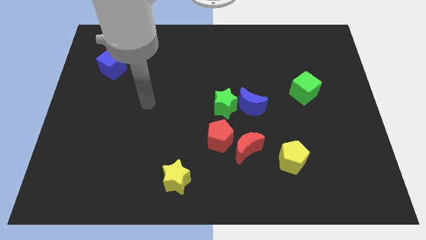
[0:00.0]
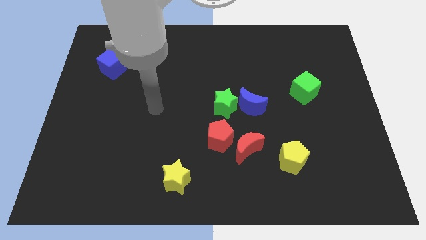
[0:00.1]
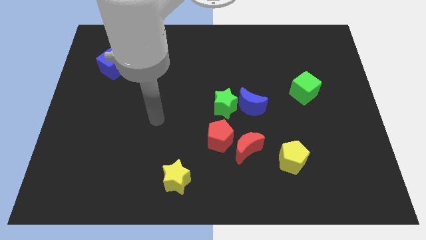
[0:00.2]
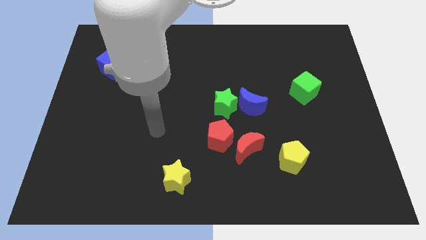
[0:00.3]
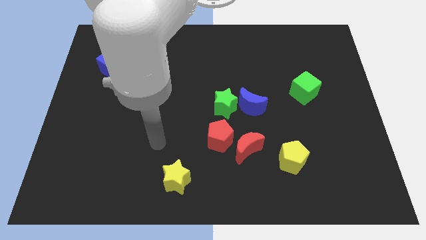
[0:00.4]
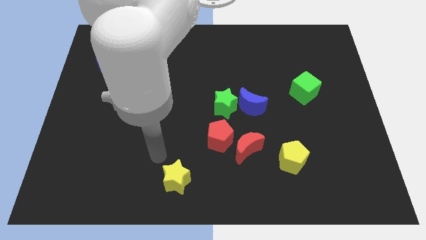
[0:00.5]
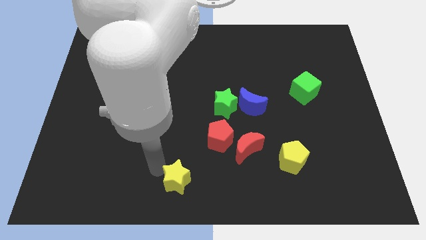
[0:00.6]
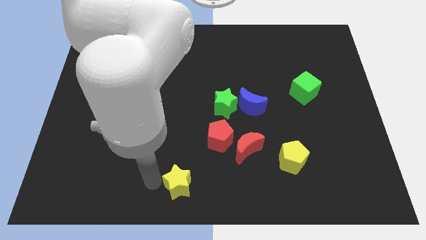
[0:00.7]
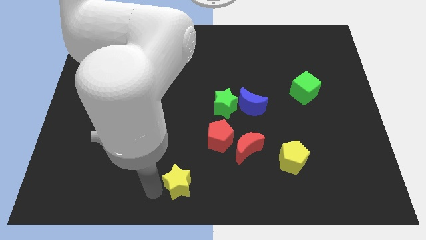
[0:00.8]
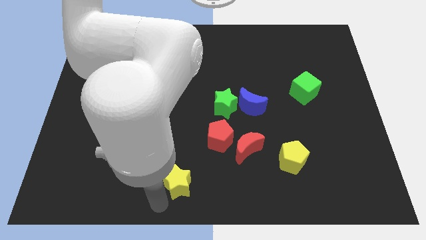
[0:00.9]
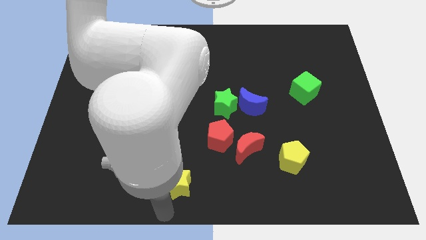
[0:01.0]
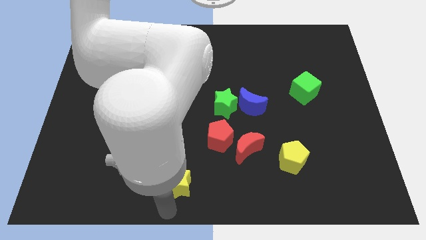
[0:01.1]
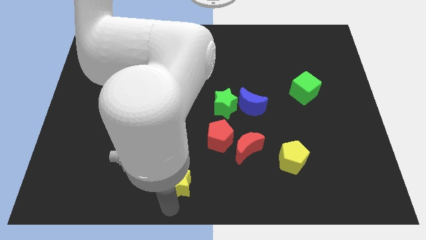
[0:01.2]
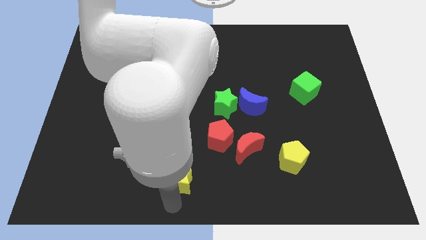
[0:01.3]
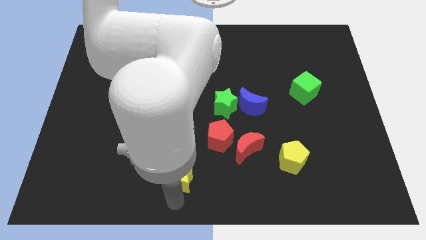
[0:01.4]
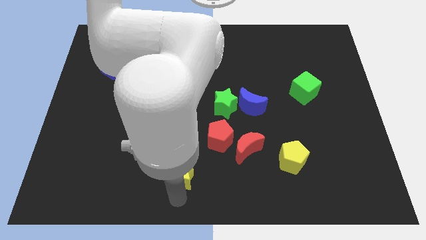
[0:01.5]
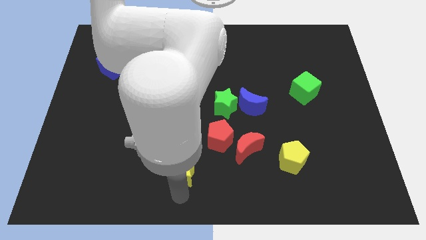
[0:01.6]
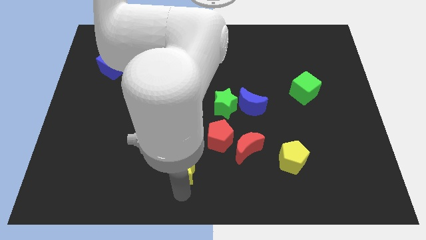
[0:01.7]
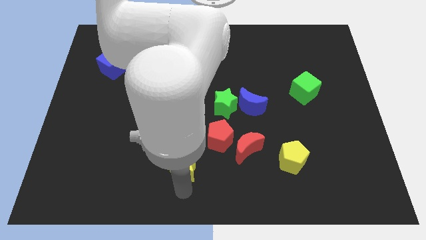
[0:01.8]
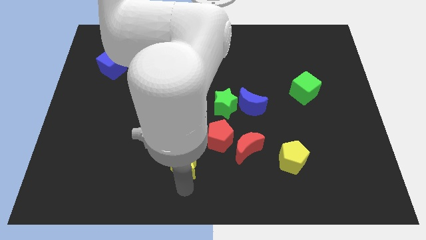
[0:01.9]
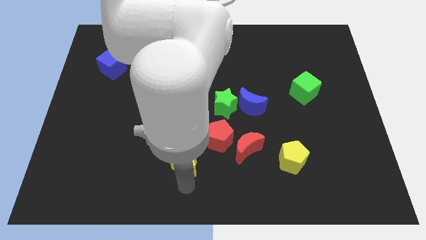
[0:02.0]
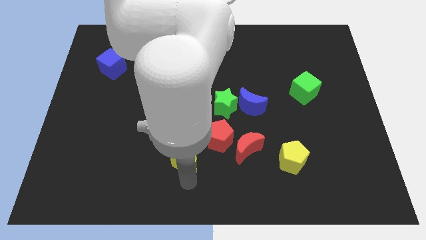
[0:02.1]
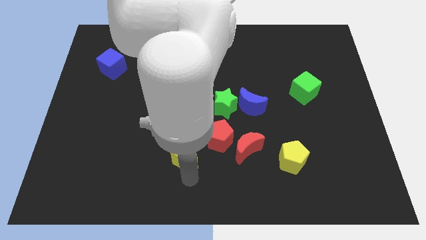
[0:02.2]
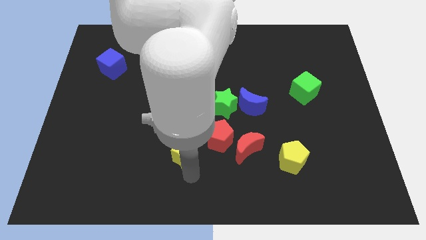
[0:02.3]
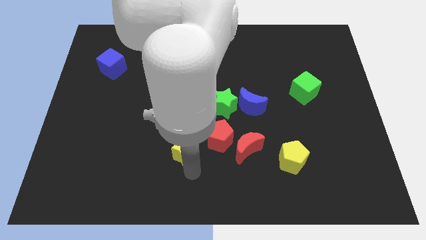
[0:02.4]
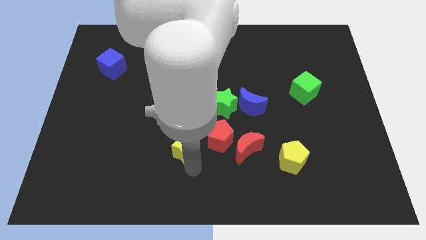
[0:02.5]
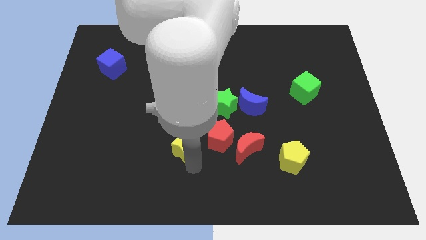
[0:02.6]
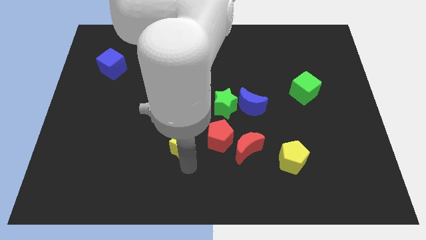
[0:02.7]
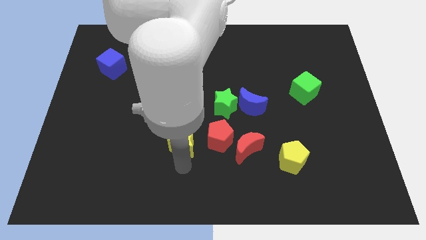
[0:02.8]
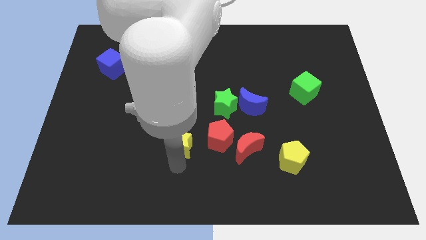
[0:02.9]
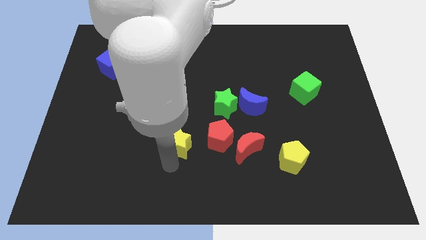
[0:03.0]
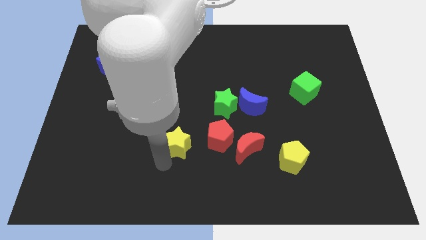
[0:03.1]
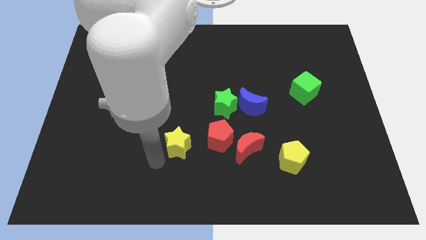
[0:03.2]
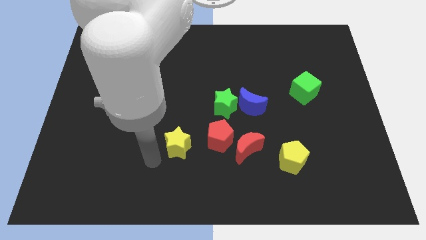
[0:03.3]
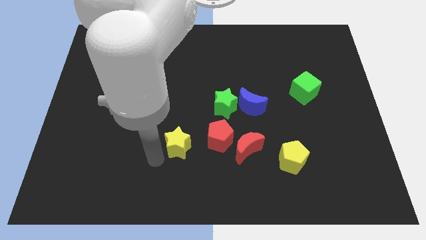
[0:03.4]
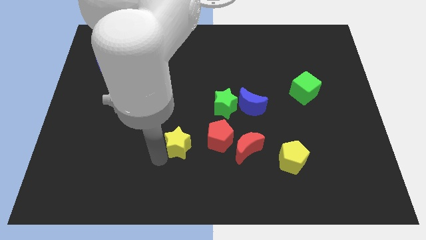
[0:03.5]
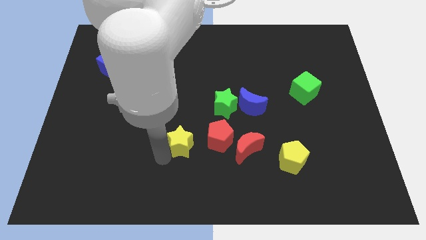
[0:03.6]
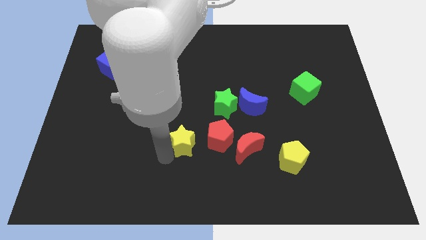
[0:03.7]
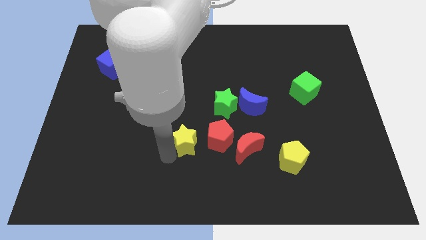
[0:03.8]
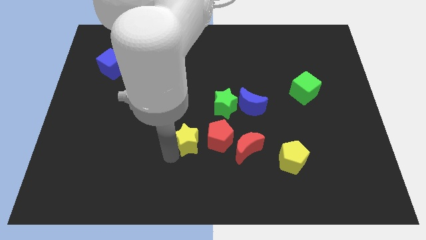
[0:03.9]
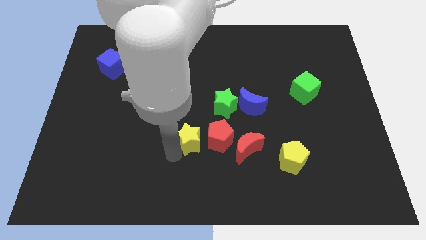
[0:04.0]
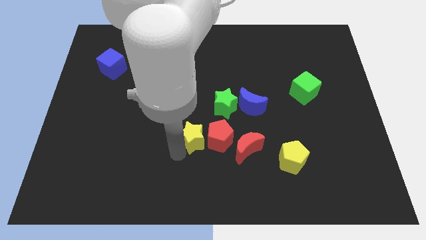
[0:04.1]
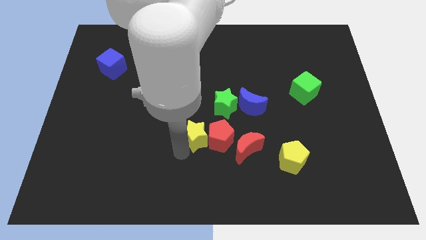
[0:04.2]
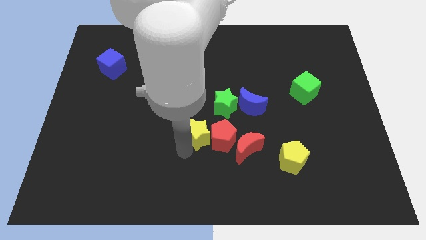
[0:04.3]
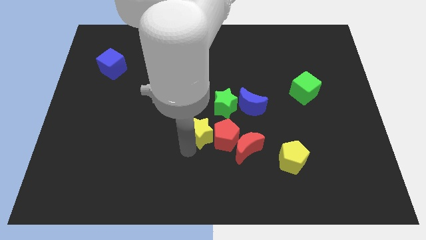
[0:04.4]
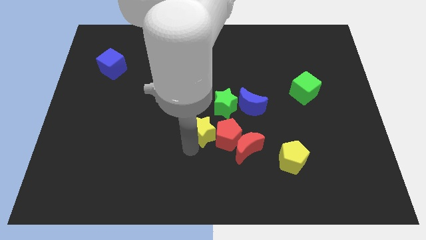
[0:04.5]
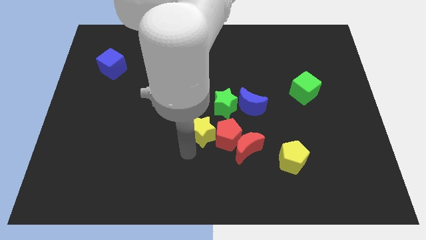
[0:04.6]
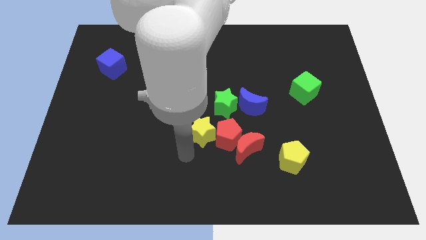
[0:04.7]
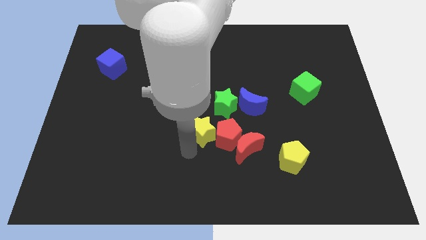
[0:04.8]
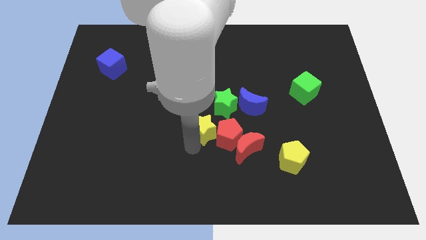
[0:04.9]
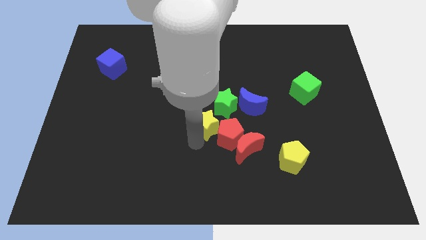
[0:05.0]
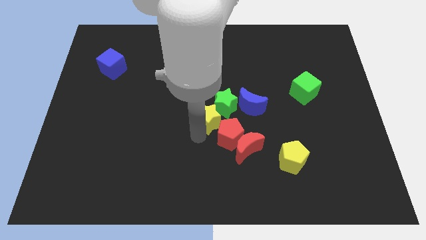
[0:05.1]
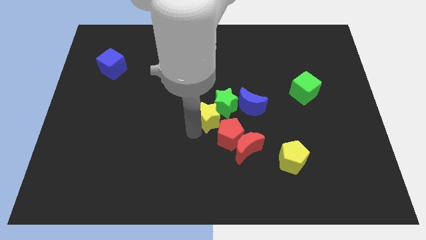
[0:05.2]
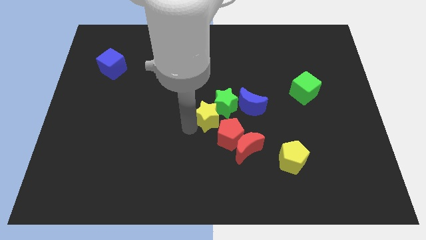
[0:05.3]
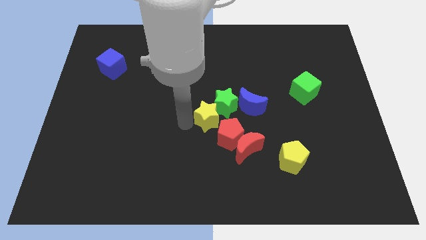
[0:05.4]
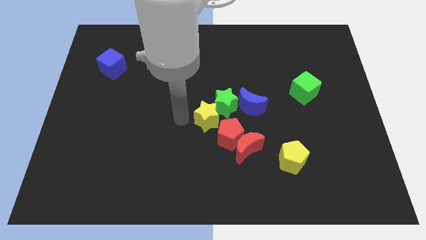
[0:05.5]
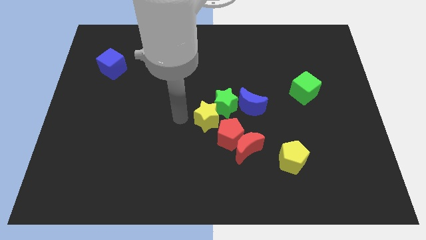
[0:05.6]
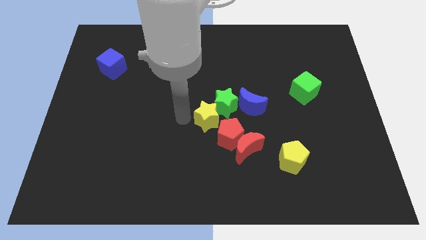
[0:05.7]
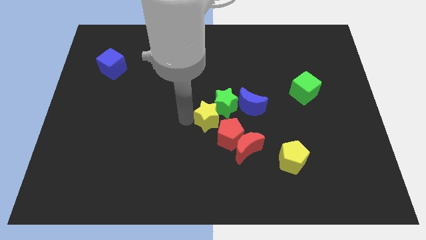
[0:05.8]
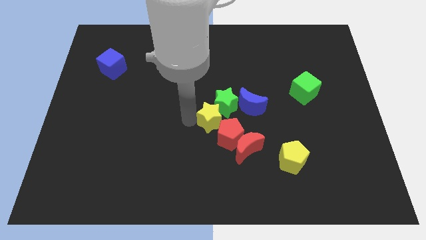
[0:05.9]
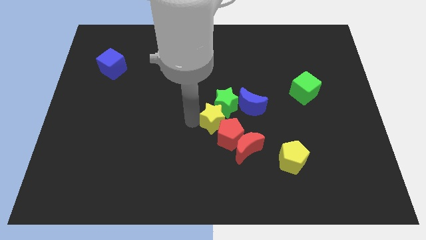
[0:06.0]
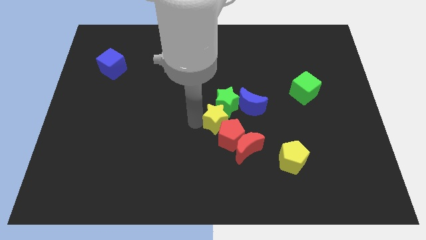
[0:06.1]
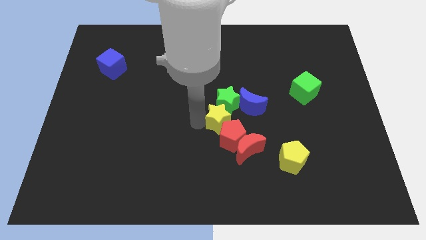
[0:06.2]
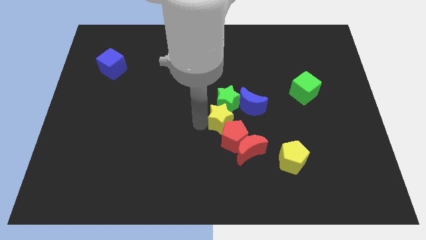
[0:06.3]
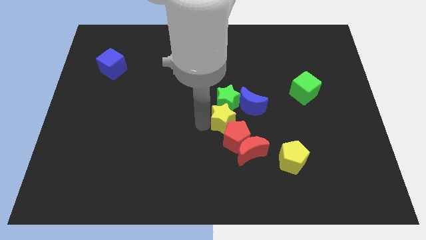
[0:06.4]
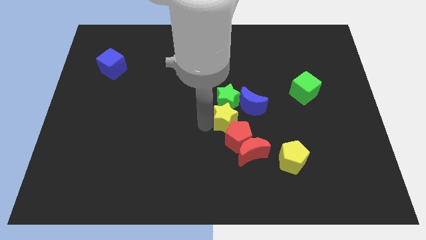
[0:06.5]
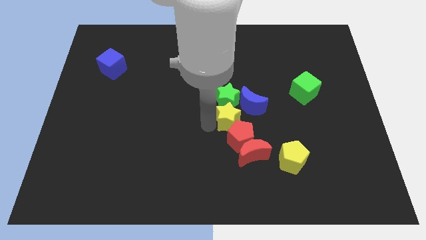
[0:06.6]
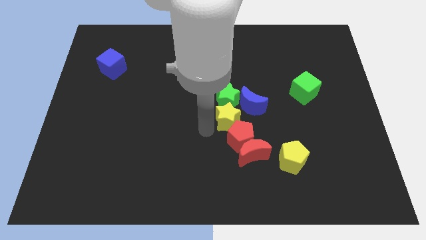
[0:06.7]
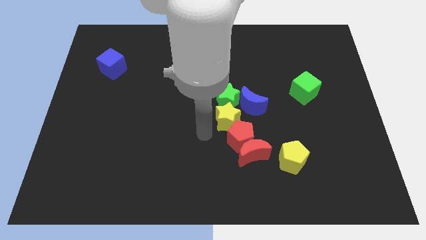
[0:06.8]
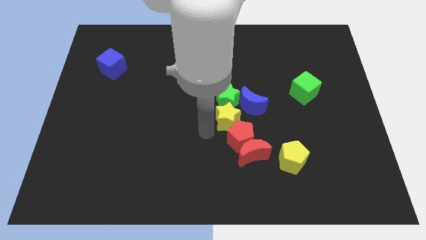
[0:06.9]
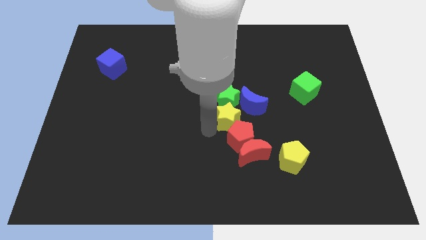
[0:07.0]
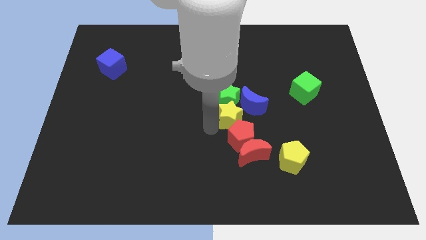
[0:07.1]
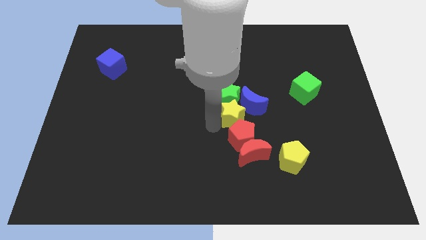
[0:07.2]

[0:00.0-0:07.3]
put the yellow star next to the blue moon

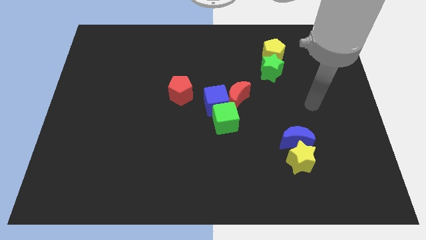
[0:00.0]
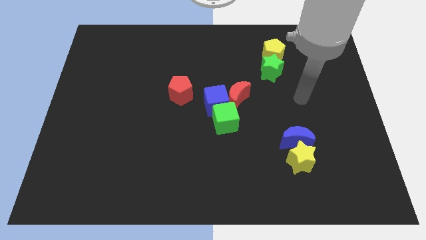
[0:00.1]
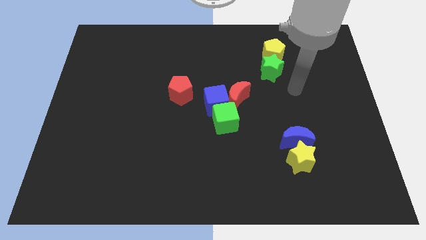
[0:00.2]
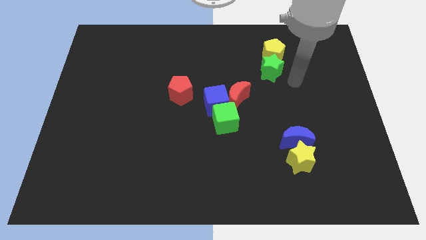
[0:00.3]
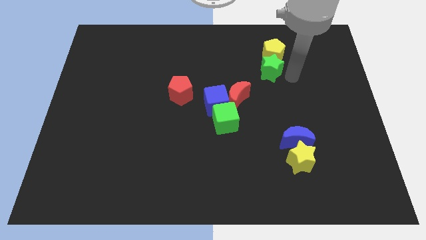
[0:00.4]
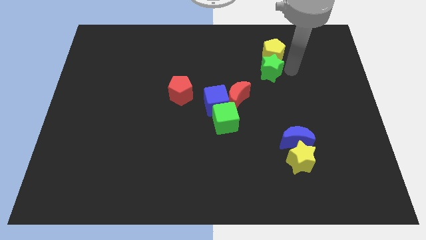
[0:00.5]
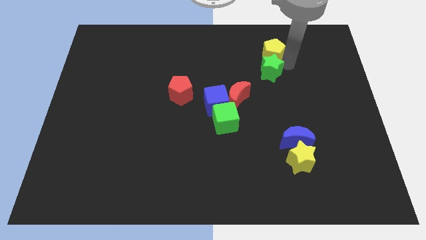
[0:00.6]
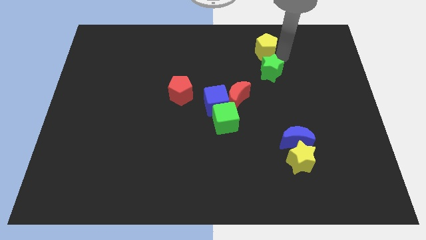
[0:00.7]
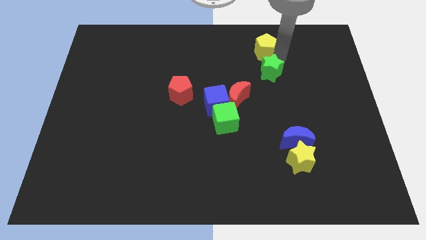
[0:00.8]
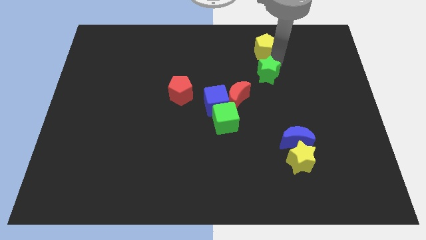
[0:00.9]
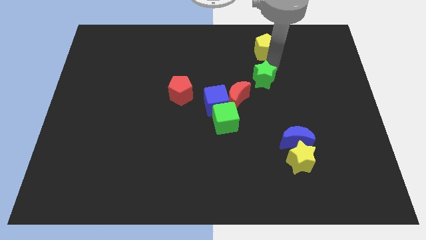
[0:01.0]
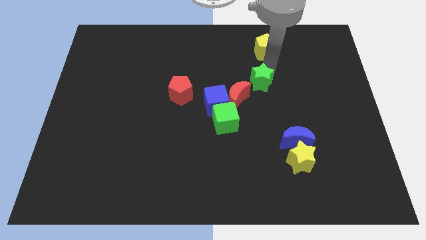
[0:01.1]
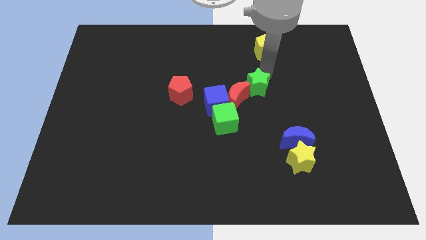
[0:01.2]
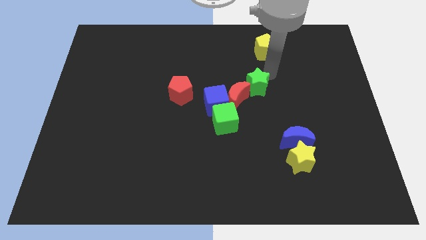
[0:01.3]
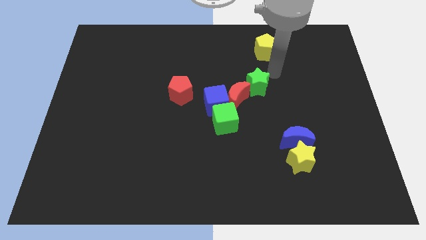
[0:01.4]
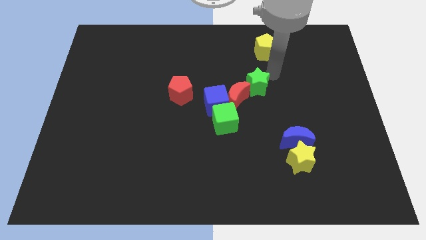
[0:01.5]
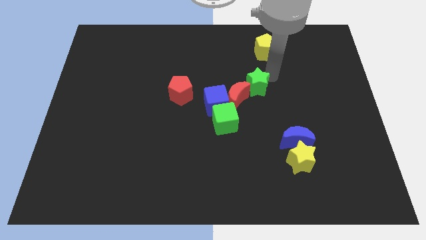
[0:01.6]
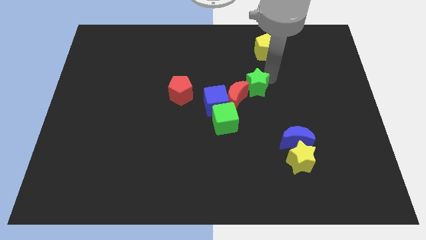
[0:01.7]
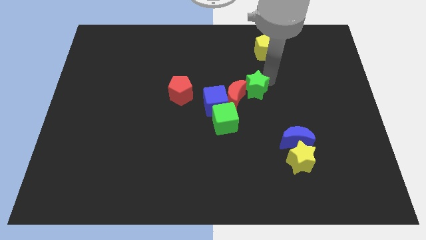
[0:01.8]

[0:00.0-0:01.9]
slide the green star towards the red moon
